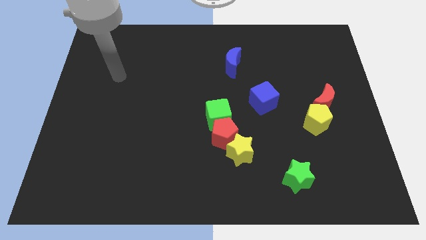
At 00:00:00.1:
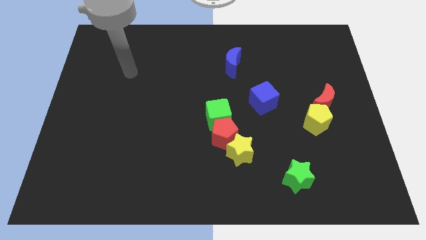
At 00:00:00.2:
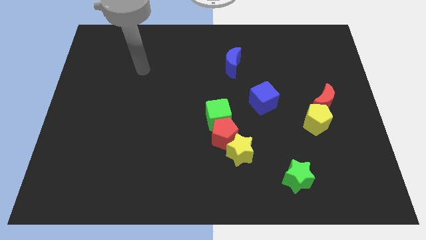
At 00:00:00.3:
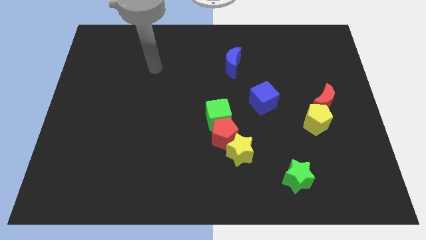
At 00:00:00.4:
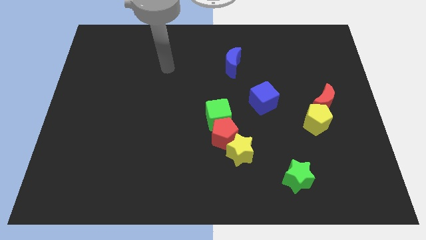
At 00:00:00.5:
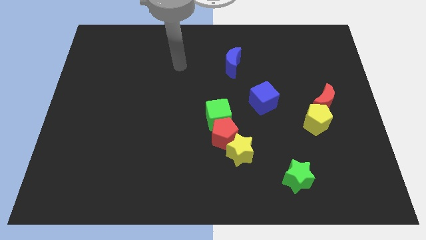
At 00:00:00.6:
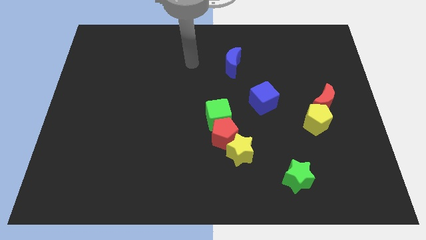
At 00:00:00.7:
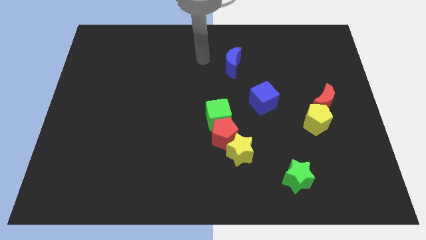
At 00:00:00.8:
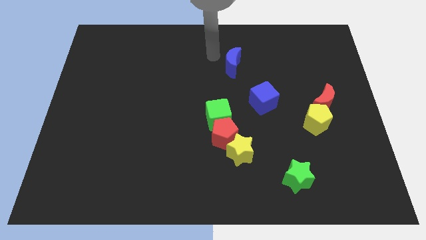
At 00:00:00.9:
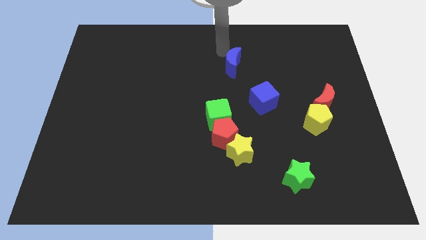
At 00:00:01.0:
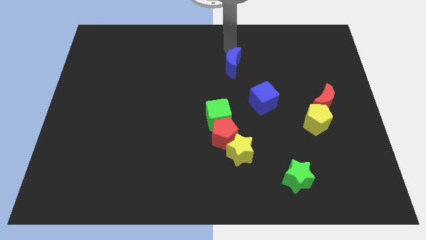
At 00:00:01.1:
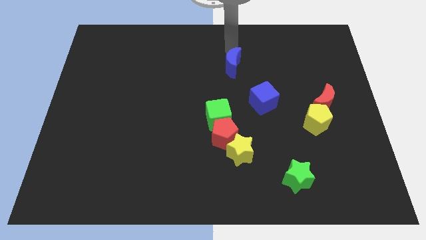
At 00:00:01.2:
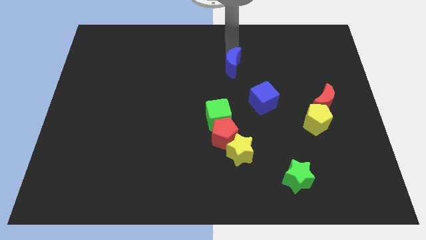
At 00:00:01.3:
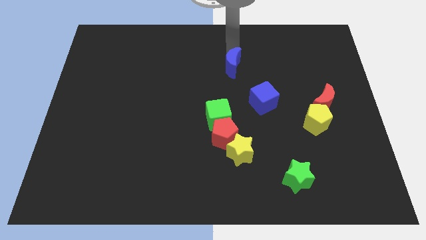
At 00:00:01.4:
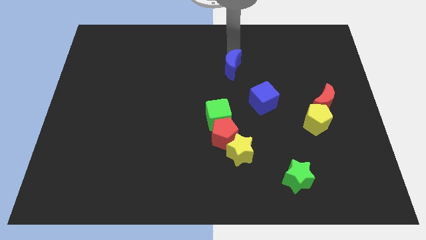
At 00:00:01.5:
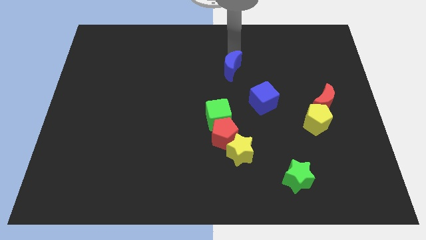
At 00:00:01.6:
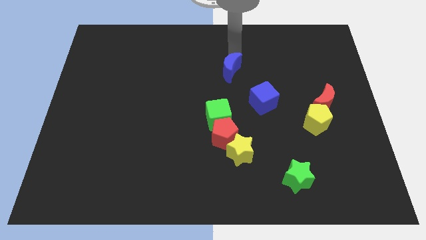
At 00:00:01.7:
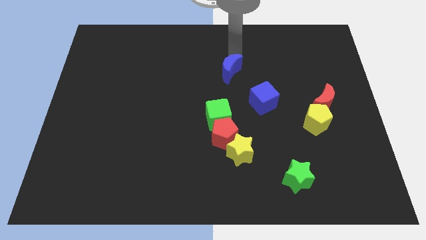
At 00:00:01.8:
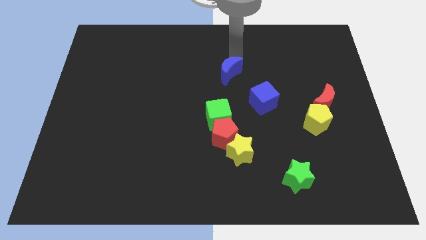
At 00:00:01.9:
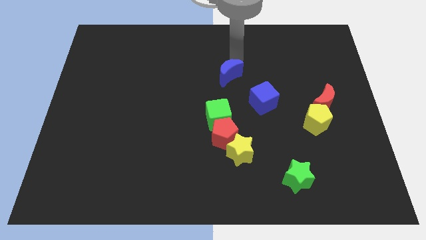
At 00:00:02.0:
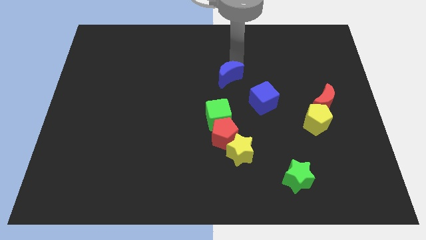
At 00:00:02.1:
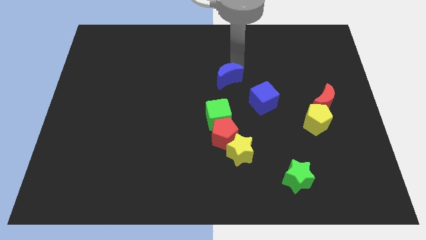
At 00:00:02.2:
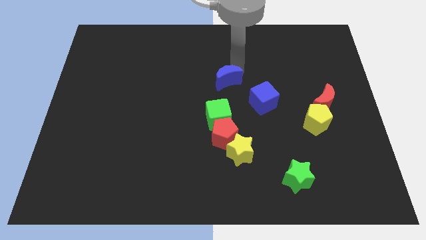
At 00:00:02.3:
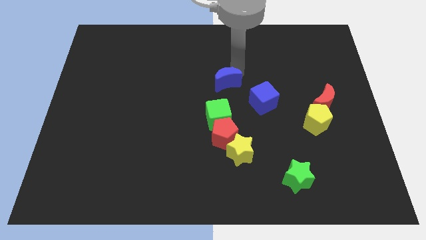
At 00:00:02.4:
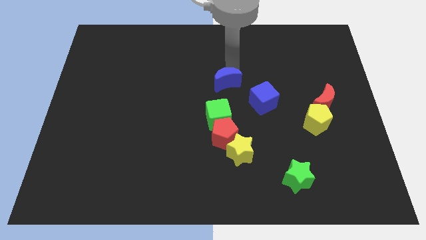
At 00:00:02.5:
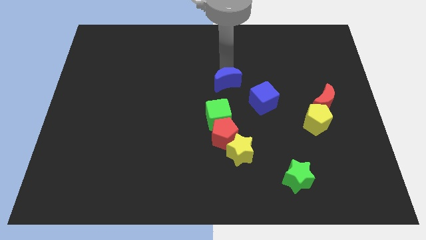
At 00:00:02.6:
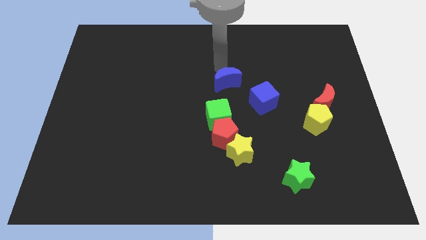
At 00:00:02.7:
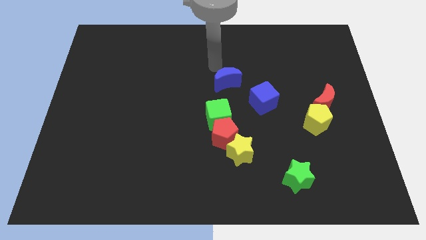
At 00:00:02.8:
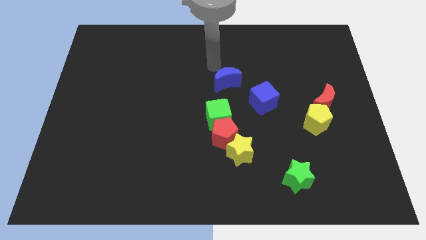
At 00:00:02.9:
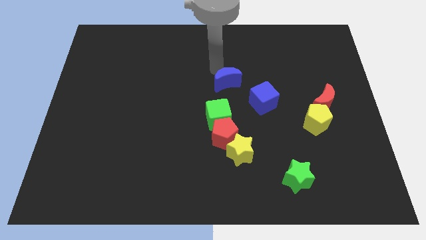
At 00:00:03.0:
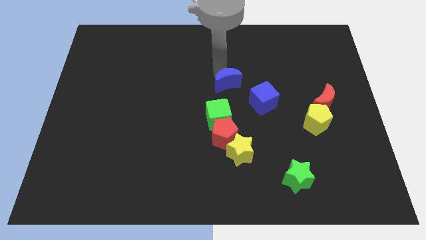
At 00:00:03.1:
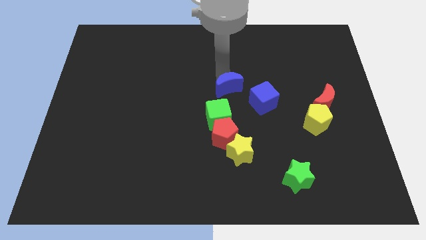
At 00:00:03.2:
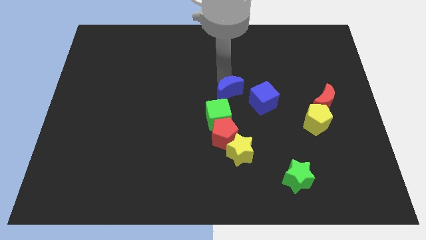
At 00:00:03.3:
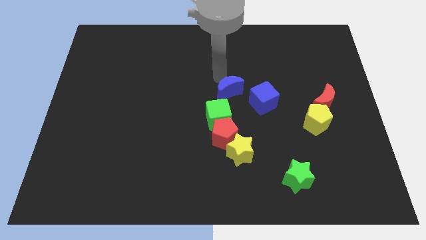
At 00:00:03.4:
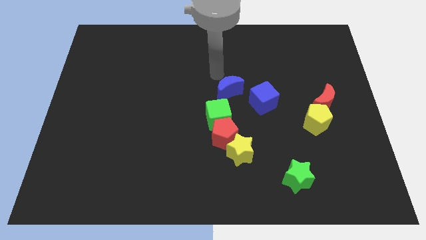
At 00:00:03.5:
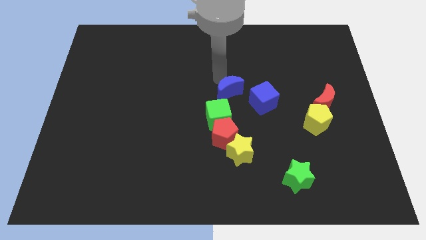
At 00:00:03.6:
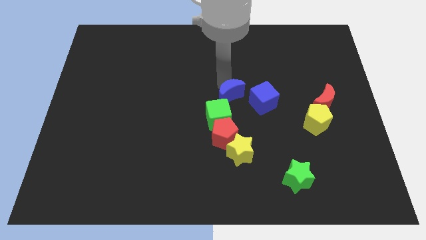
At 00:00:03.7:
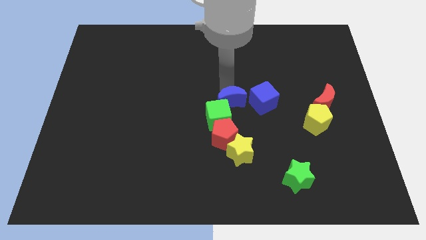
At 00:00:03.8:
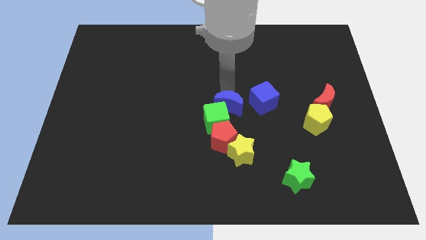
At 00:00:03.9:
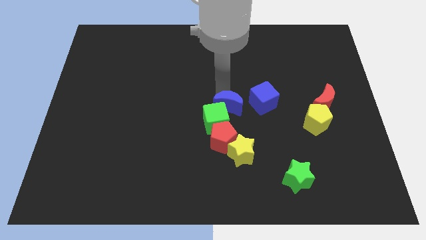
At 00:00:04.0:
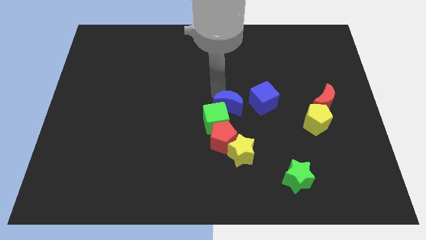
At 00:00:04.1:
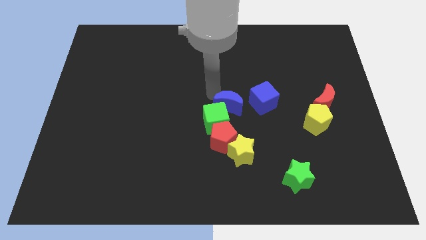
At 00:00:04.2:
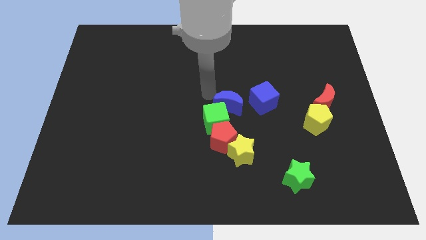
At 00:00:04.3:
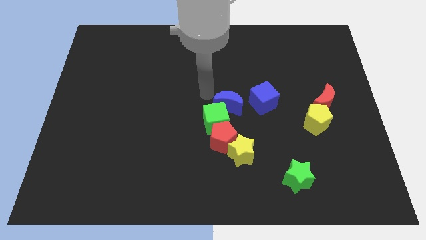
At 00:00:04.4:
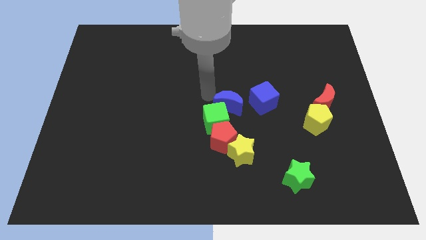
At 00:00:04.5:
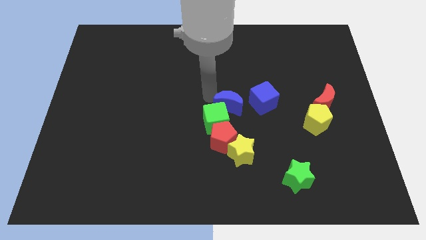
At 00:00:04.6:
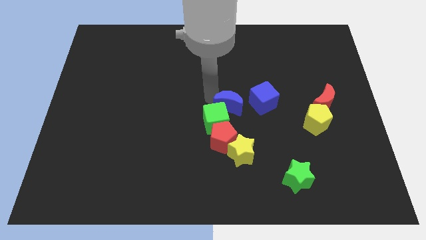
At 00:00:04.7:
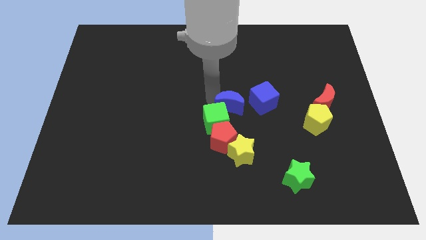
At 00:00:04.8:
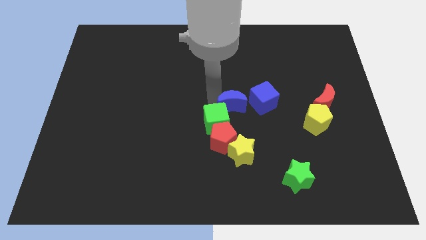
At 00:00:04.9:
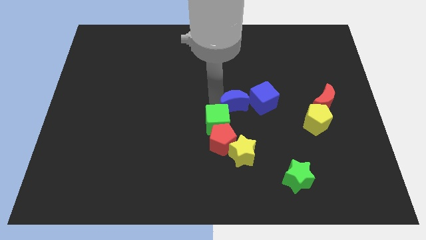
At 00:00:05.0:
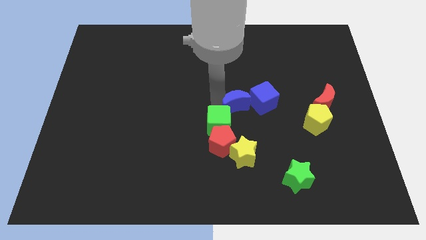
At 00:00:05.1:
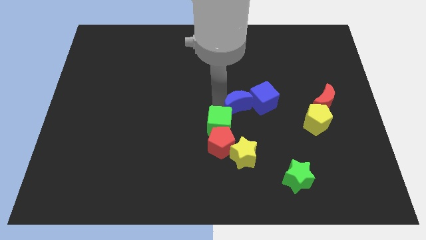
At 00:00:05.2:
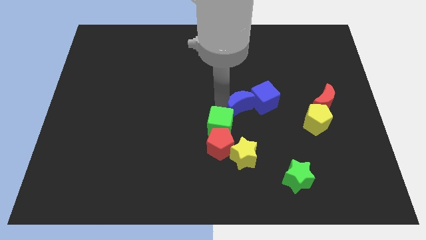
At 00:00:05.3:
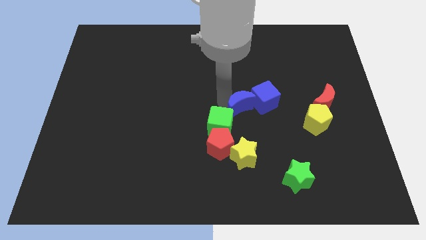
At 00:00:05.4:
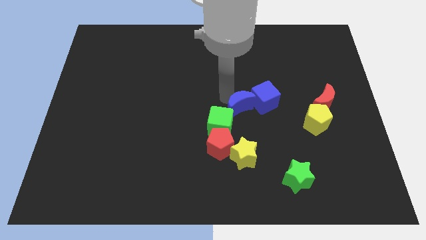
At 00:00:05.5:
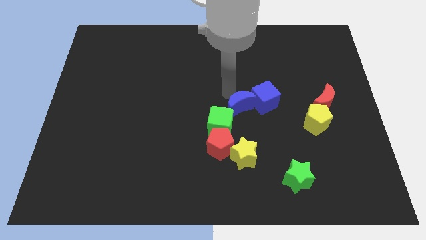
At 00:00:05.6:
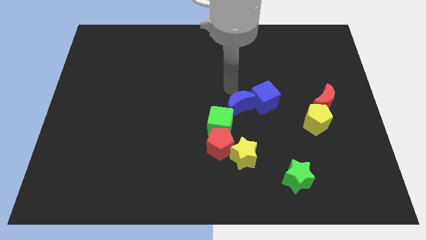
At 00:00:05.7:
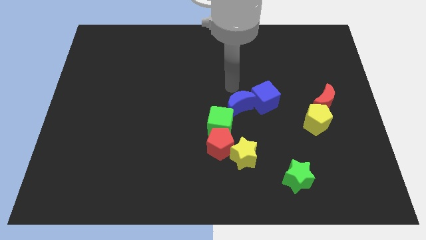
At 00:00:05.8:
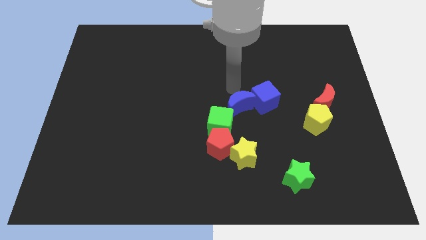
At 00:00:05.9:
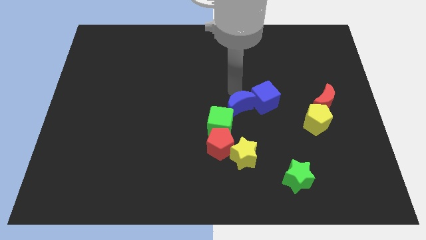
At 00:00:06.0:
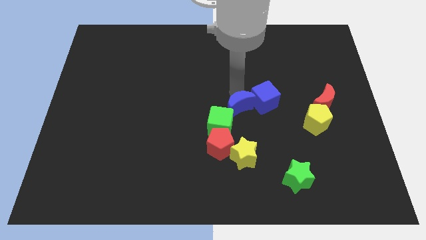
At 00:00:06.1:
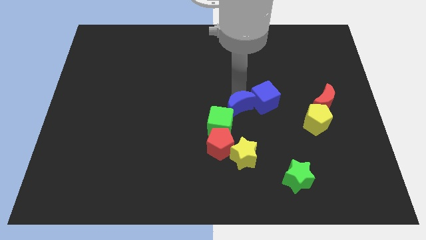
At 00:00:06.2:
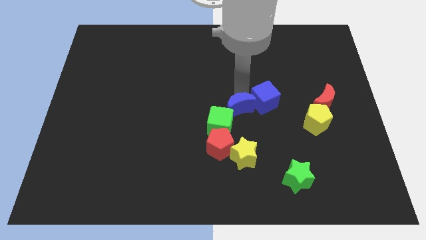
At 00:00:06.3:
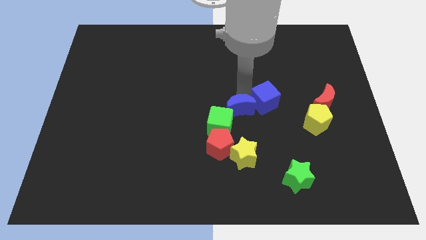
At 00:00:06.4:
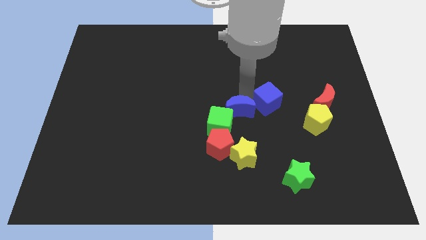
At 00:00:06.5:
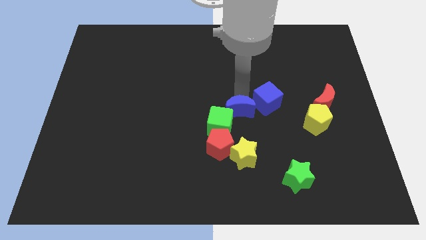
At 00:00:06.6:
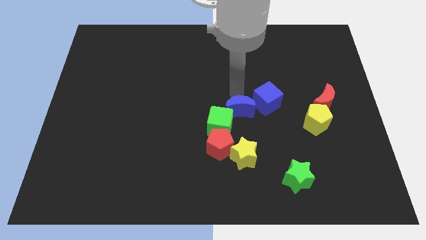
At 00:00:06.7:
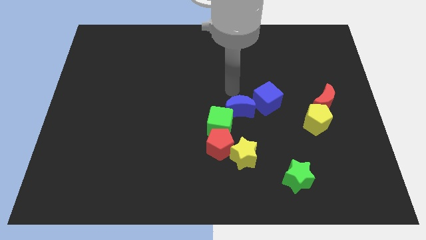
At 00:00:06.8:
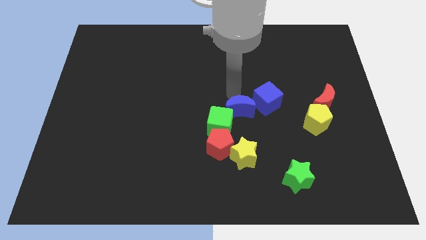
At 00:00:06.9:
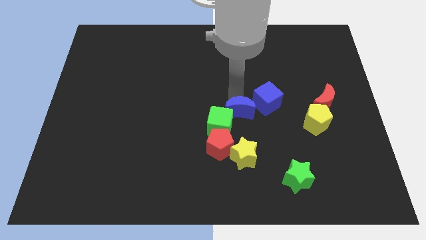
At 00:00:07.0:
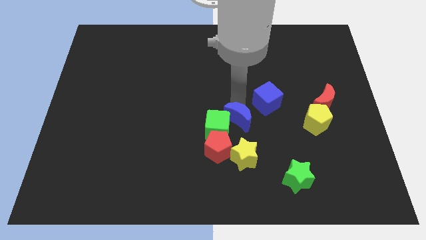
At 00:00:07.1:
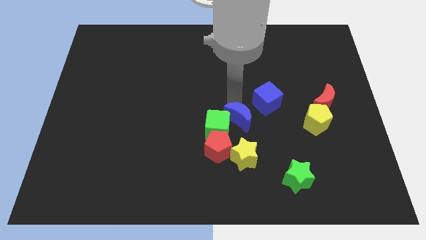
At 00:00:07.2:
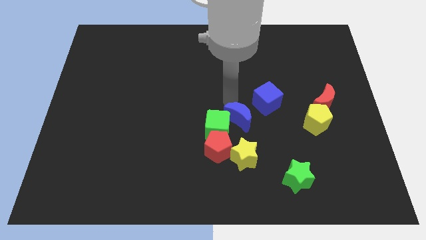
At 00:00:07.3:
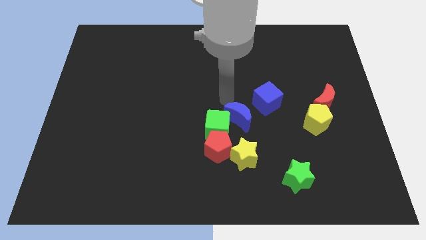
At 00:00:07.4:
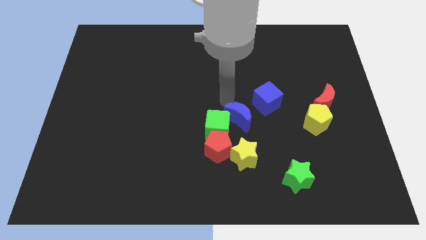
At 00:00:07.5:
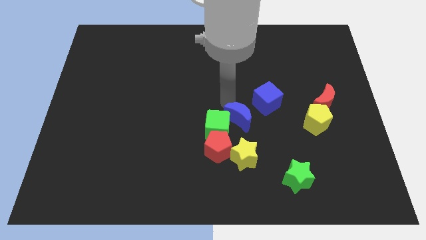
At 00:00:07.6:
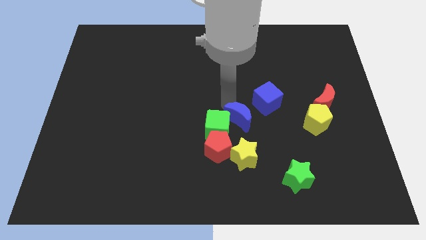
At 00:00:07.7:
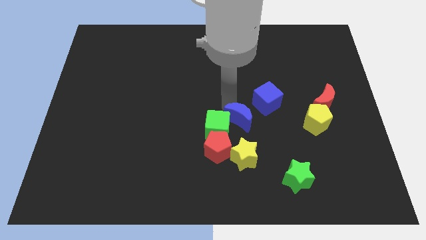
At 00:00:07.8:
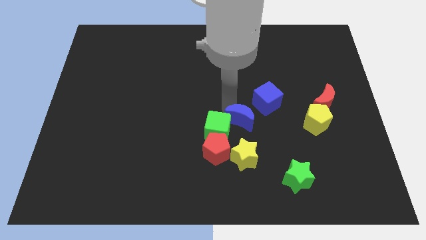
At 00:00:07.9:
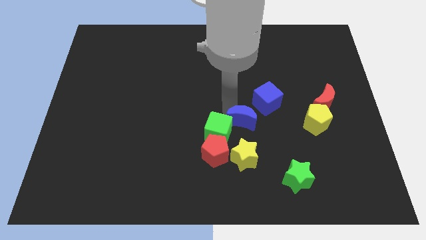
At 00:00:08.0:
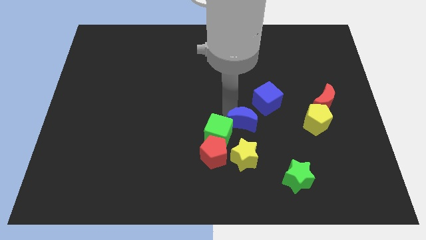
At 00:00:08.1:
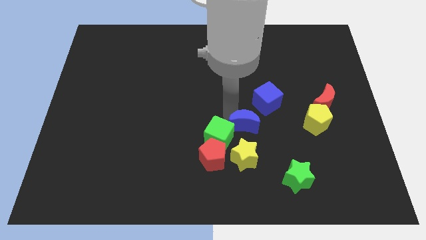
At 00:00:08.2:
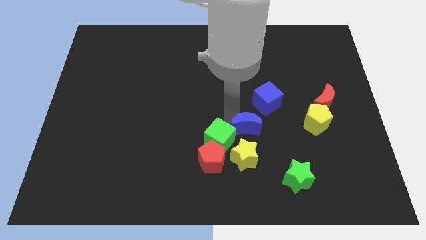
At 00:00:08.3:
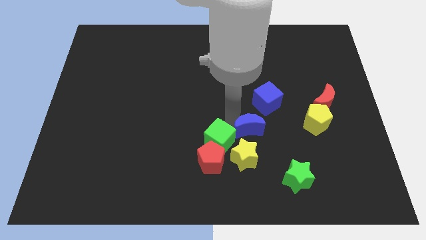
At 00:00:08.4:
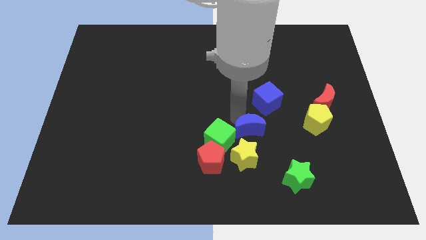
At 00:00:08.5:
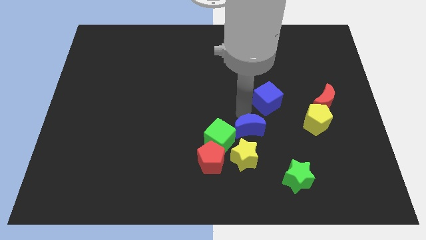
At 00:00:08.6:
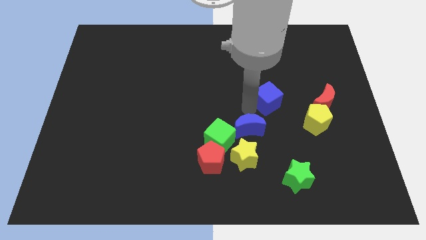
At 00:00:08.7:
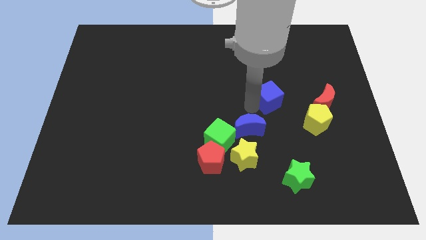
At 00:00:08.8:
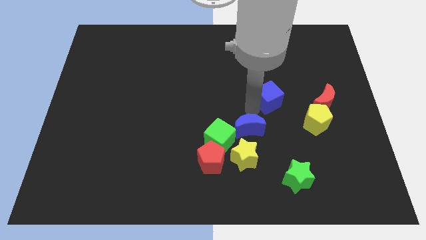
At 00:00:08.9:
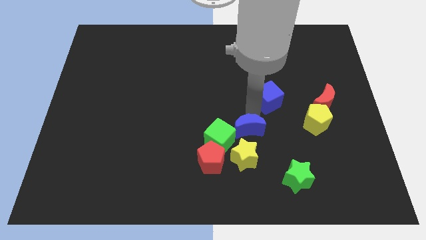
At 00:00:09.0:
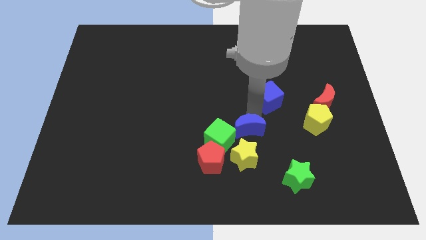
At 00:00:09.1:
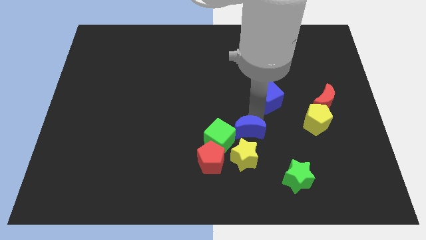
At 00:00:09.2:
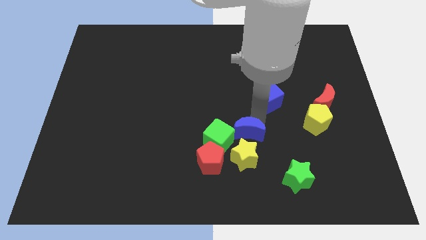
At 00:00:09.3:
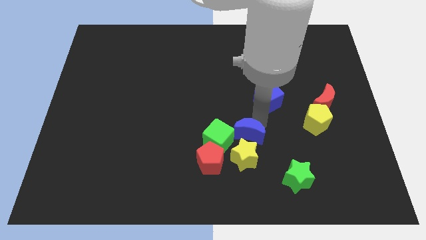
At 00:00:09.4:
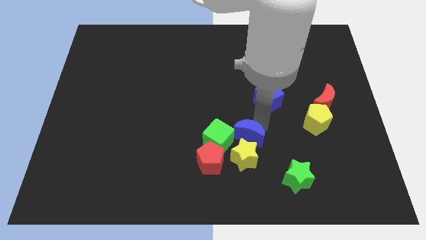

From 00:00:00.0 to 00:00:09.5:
move the blue moon to the yellow star
